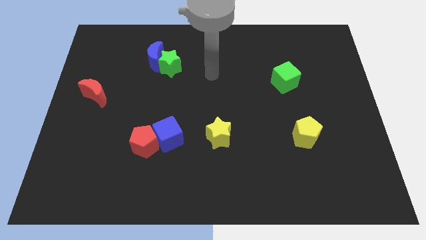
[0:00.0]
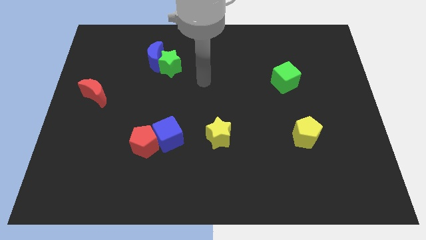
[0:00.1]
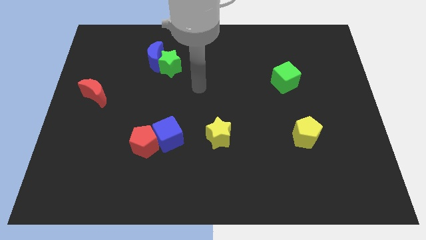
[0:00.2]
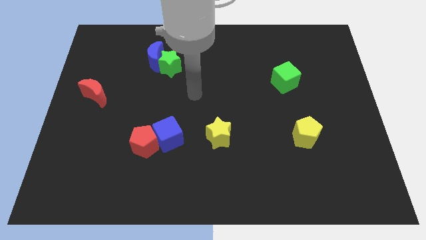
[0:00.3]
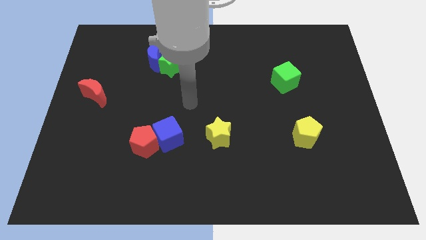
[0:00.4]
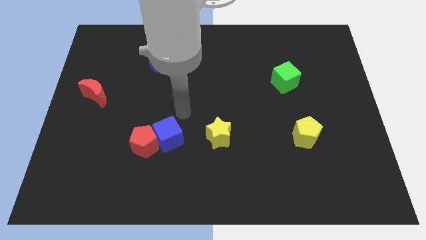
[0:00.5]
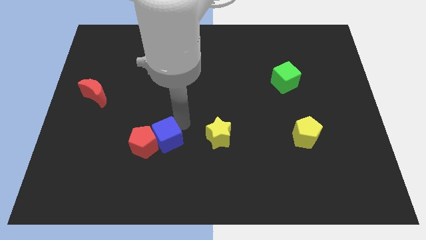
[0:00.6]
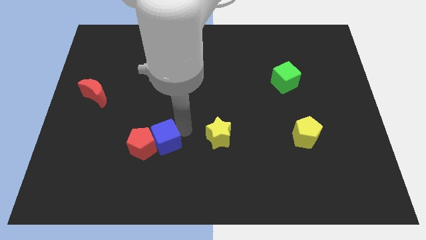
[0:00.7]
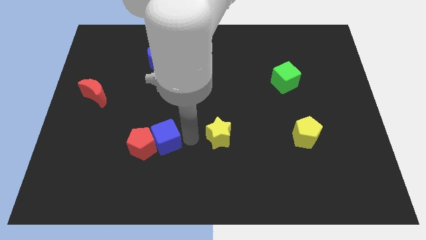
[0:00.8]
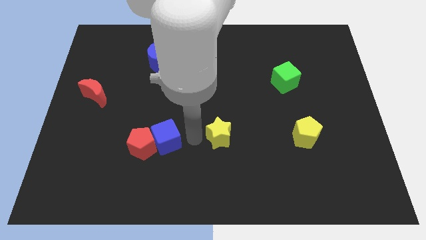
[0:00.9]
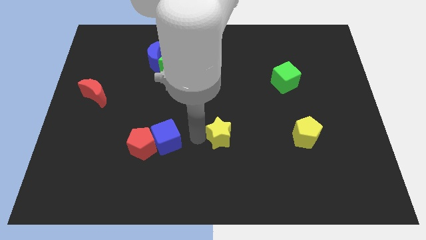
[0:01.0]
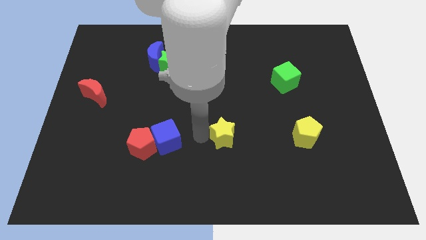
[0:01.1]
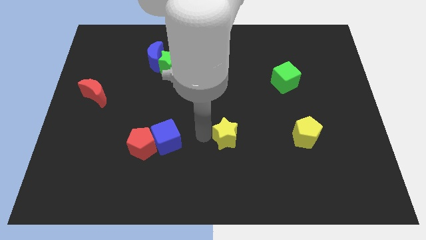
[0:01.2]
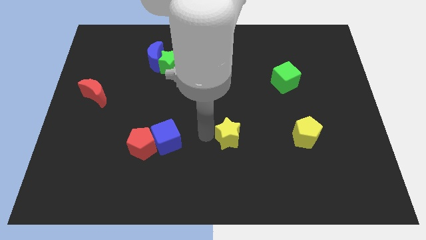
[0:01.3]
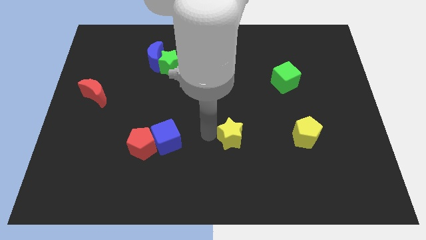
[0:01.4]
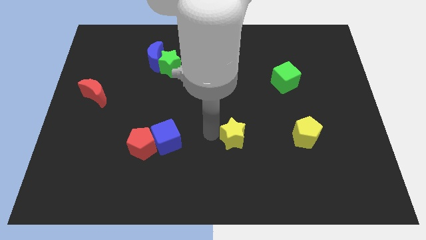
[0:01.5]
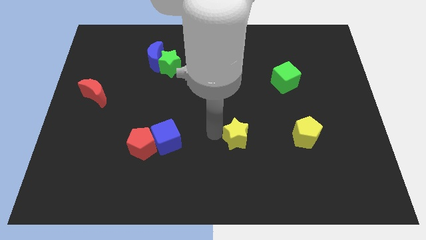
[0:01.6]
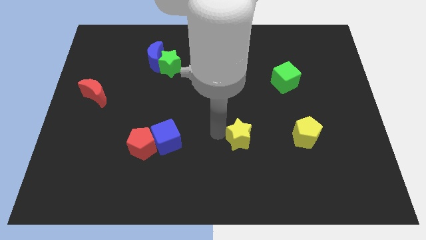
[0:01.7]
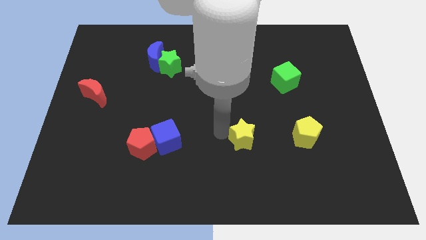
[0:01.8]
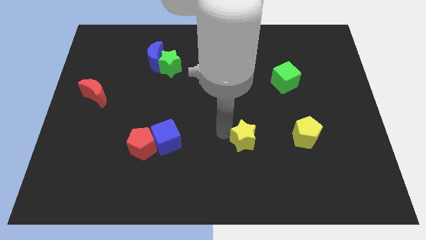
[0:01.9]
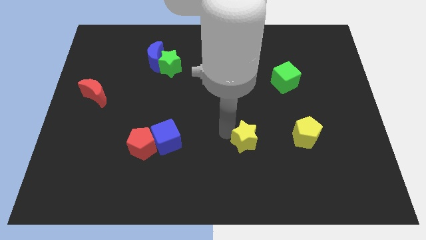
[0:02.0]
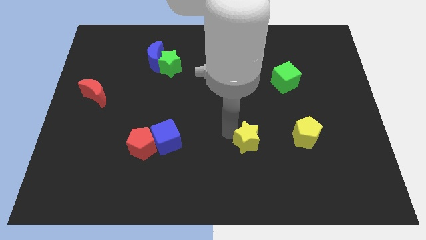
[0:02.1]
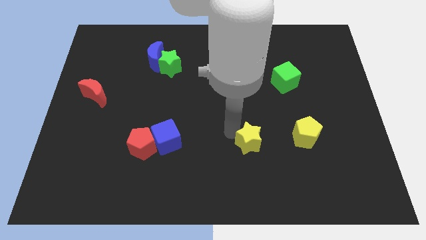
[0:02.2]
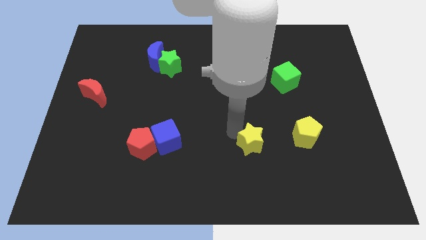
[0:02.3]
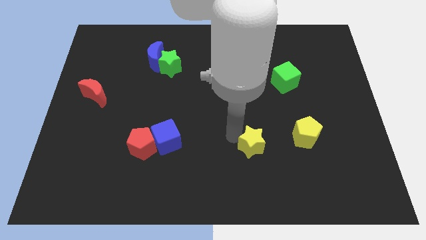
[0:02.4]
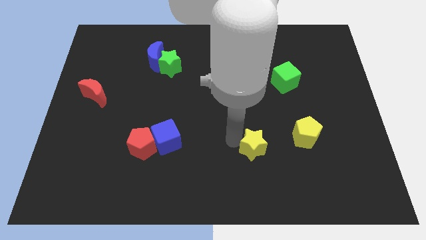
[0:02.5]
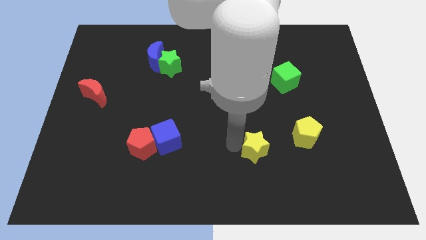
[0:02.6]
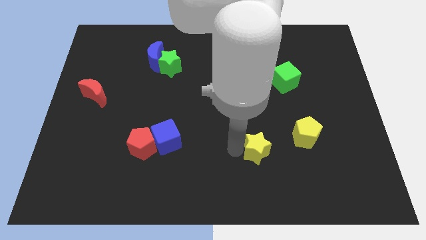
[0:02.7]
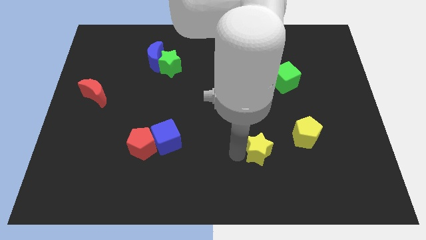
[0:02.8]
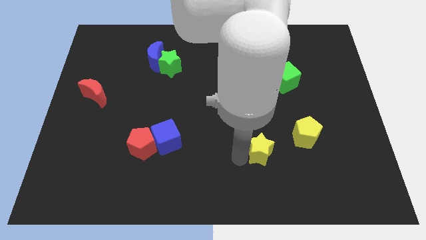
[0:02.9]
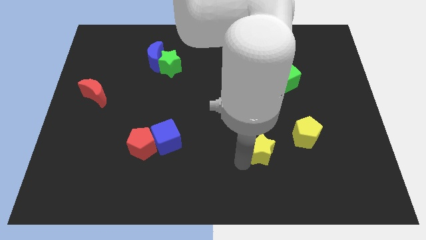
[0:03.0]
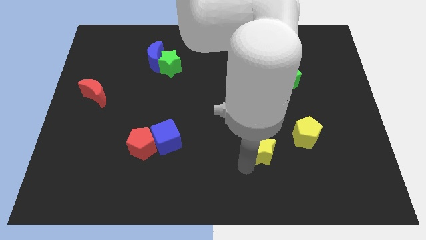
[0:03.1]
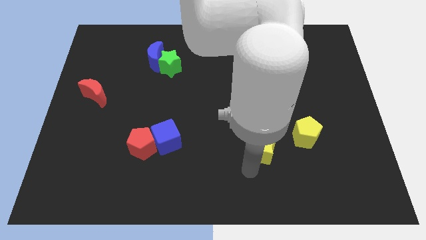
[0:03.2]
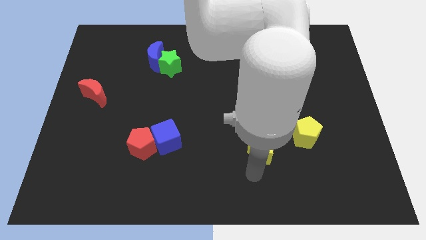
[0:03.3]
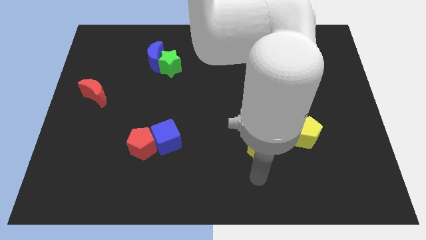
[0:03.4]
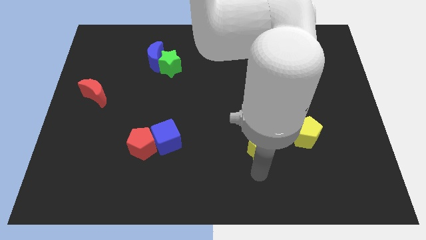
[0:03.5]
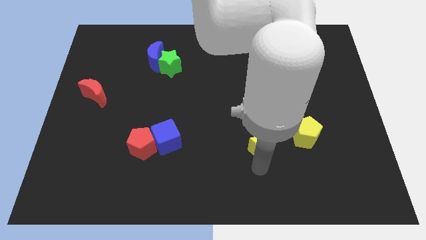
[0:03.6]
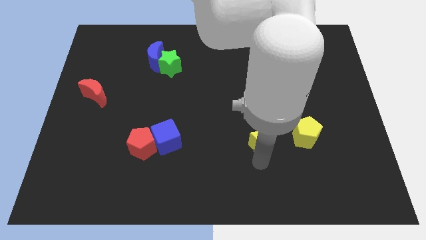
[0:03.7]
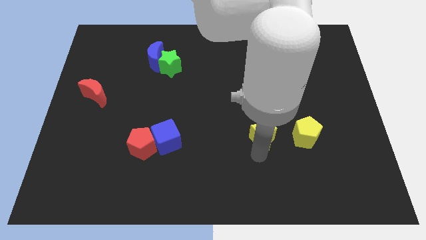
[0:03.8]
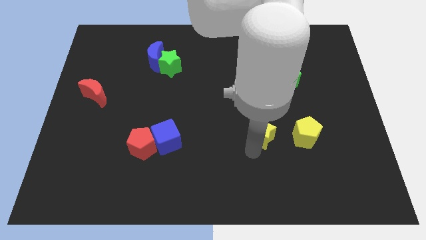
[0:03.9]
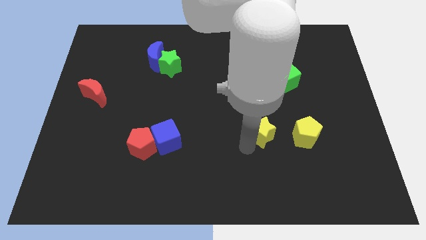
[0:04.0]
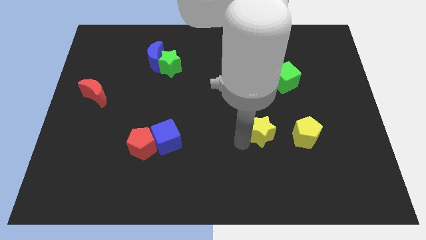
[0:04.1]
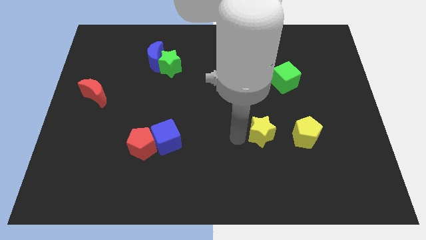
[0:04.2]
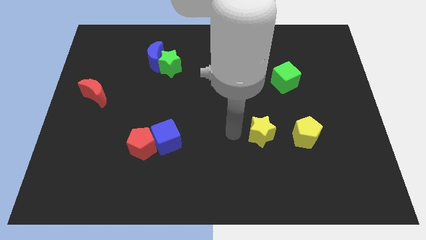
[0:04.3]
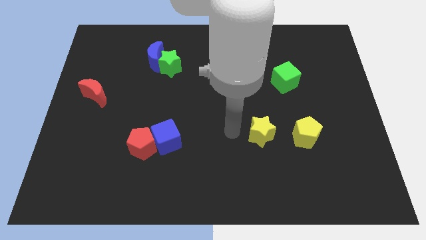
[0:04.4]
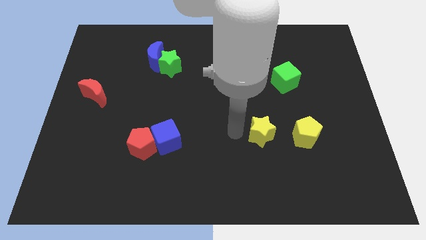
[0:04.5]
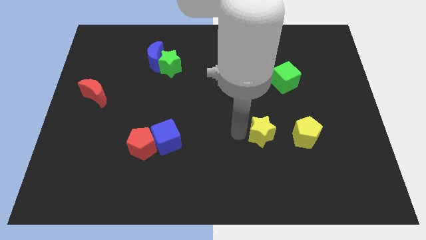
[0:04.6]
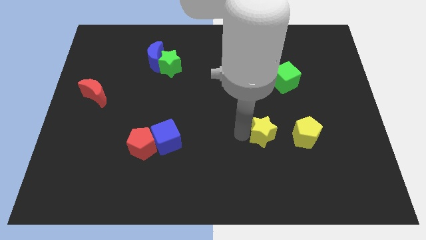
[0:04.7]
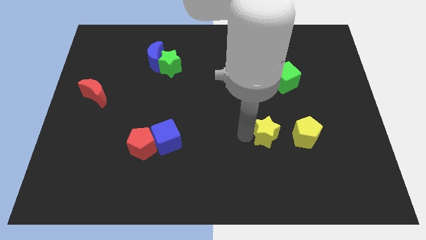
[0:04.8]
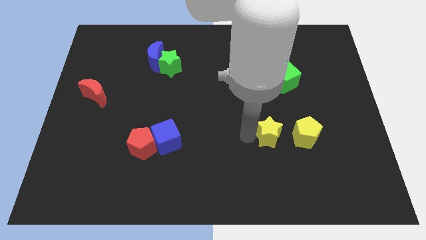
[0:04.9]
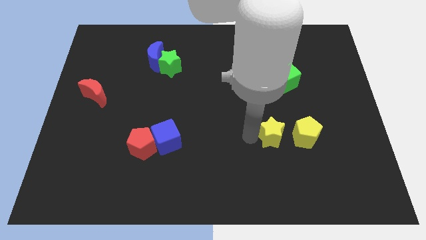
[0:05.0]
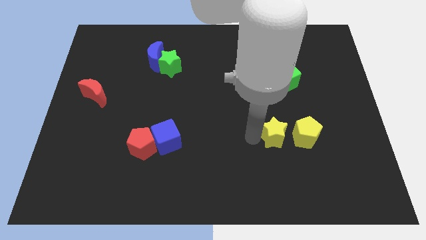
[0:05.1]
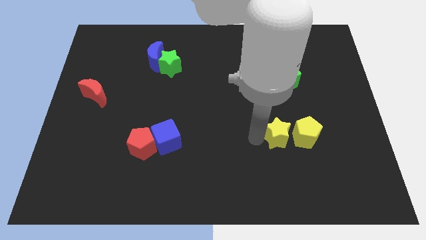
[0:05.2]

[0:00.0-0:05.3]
put the yellow star close to the yellow pentagon

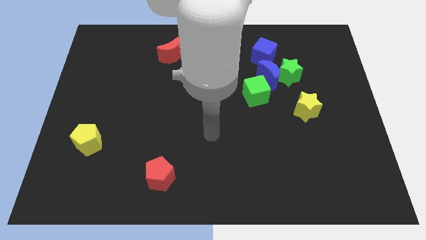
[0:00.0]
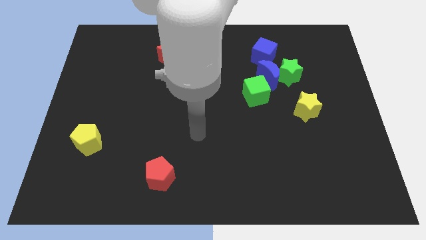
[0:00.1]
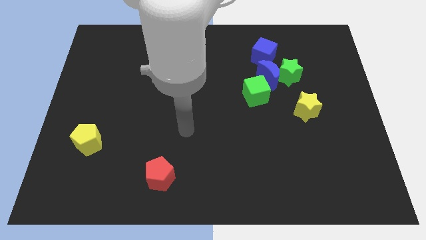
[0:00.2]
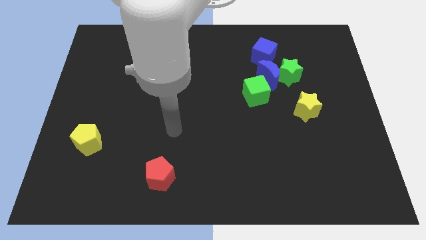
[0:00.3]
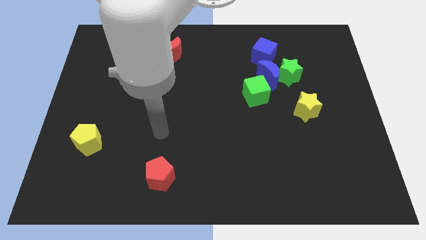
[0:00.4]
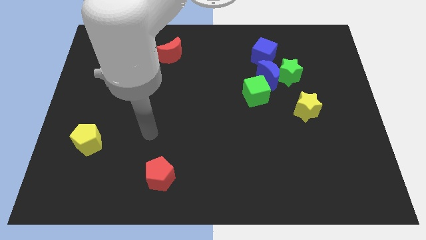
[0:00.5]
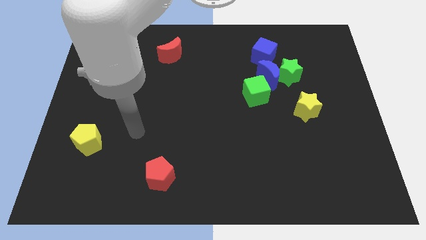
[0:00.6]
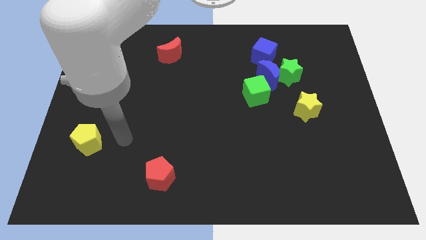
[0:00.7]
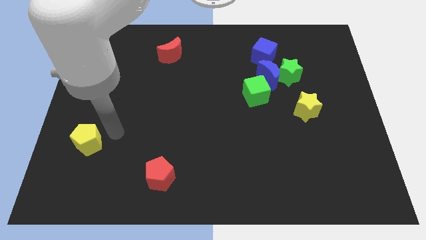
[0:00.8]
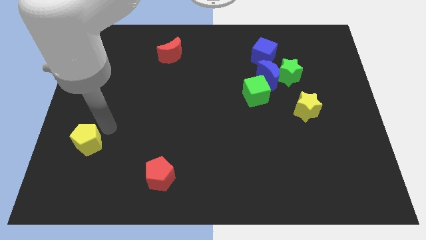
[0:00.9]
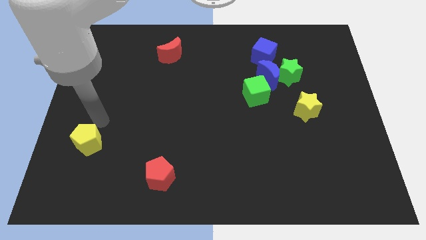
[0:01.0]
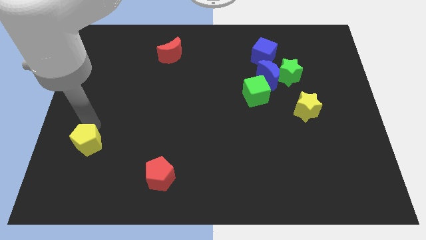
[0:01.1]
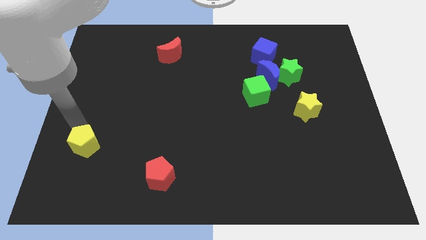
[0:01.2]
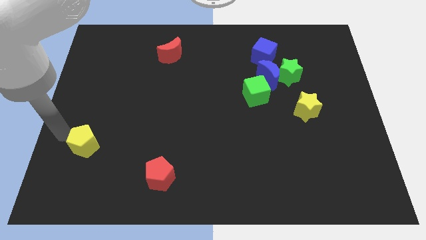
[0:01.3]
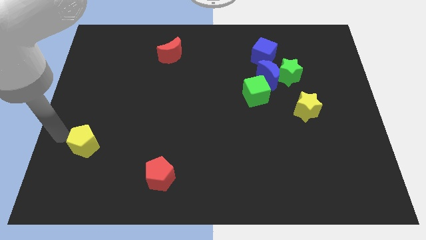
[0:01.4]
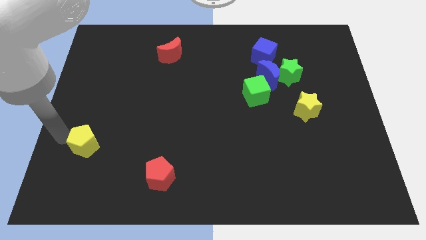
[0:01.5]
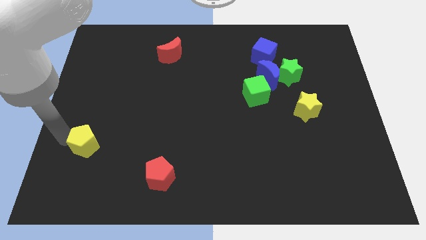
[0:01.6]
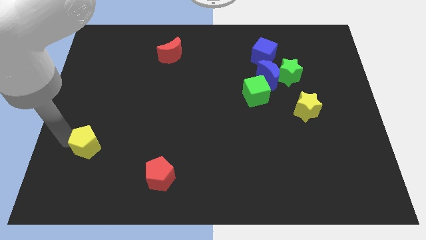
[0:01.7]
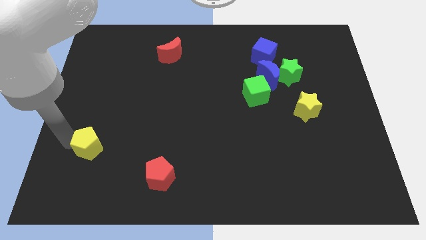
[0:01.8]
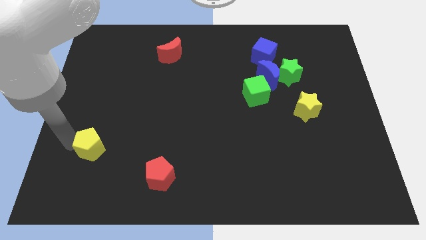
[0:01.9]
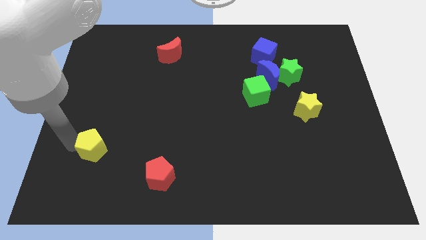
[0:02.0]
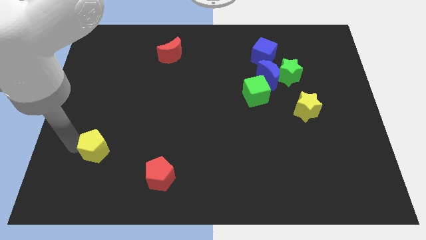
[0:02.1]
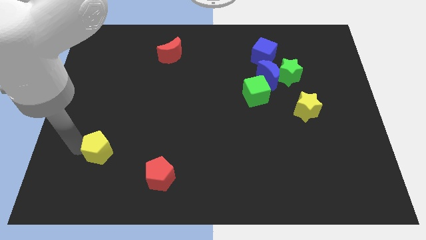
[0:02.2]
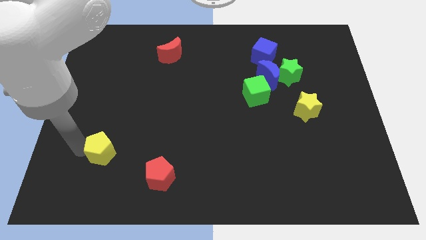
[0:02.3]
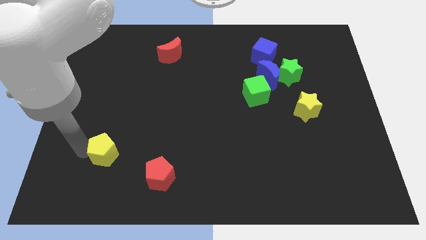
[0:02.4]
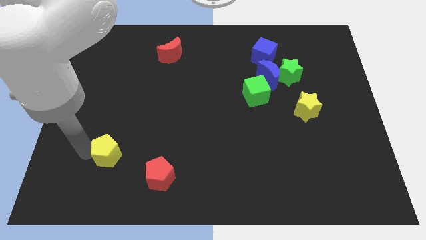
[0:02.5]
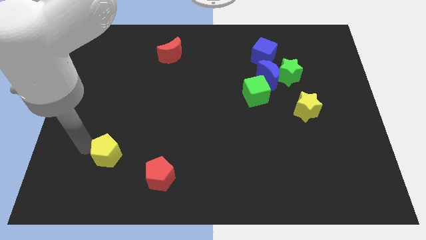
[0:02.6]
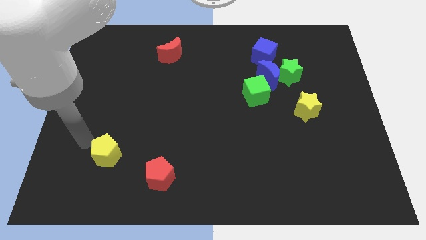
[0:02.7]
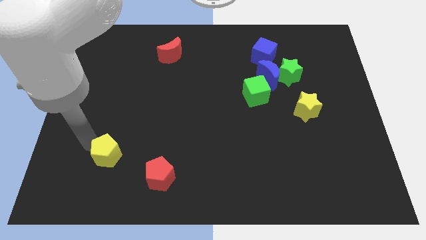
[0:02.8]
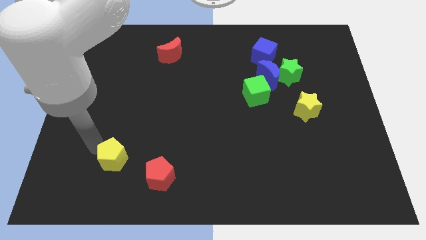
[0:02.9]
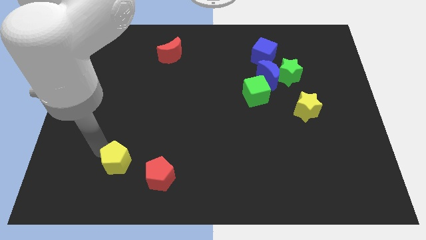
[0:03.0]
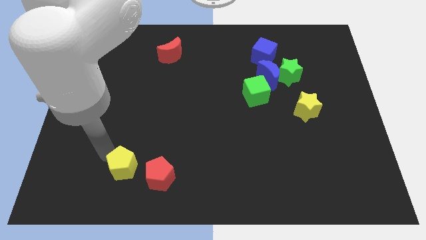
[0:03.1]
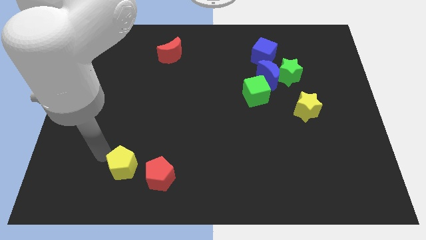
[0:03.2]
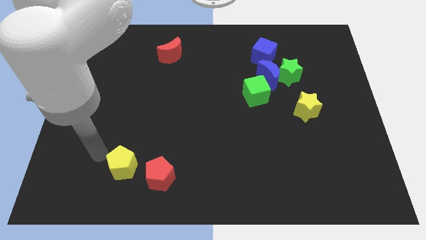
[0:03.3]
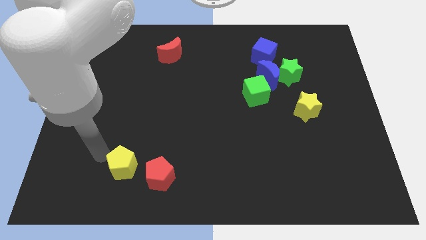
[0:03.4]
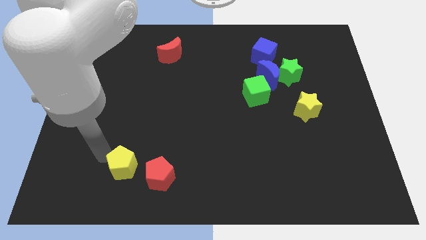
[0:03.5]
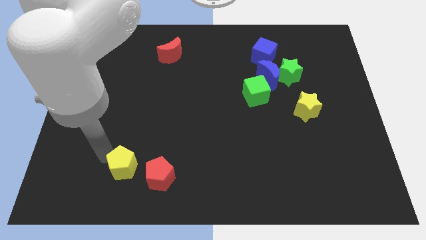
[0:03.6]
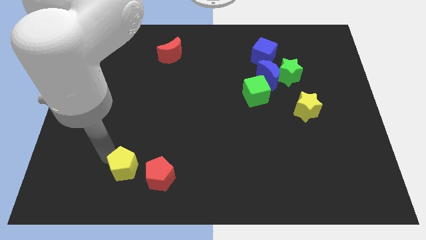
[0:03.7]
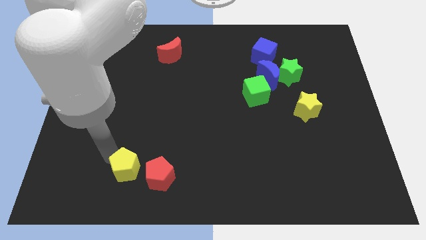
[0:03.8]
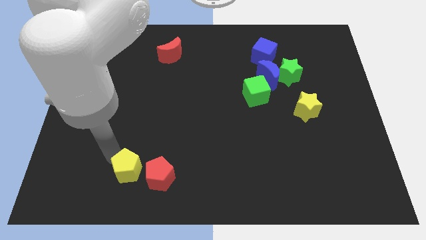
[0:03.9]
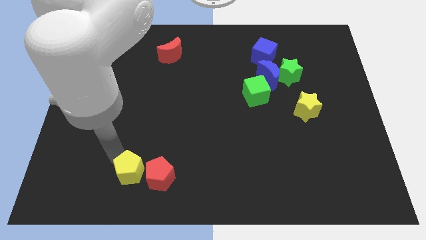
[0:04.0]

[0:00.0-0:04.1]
slide the yellow pentagon towards the red pentagon
